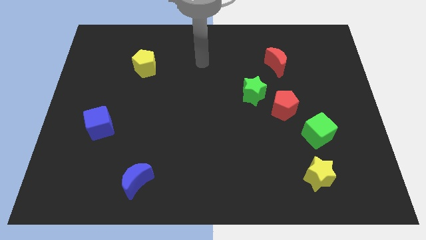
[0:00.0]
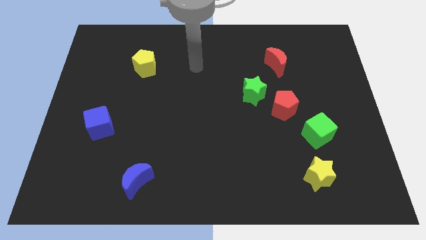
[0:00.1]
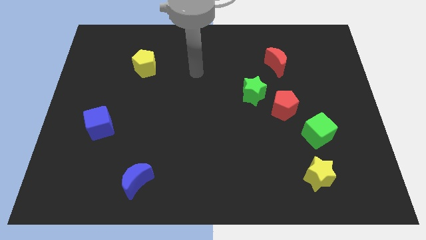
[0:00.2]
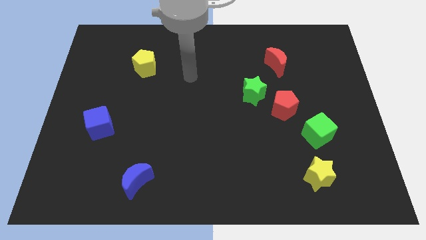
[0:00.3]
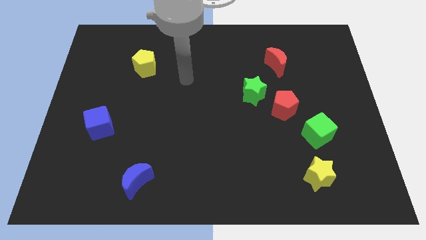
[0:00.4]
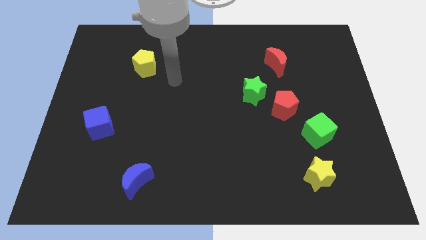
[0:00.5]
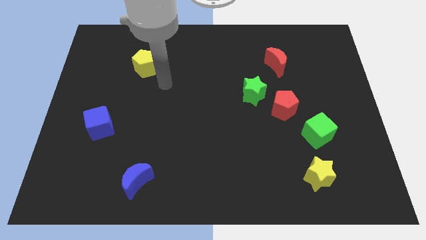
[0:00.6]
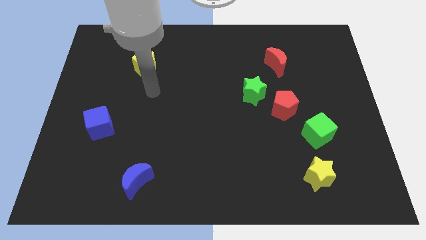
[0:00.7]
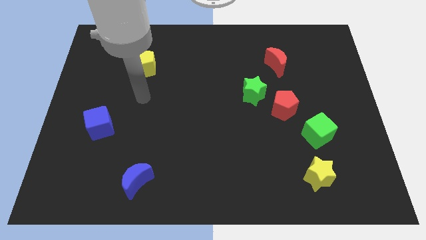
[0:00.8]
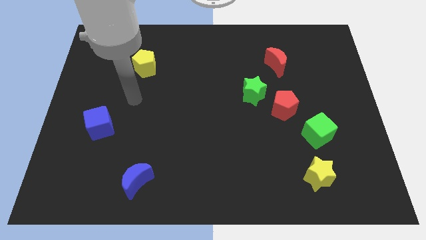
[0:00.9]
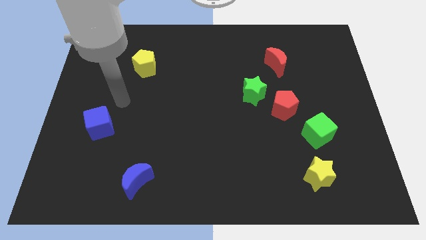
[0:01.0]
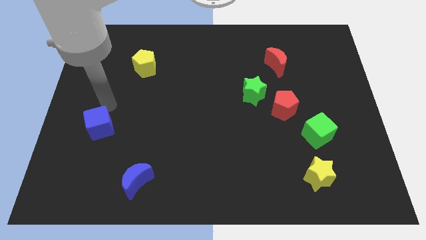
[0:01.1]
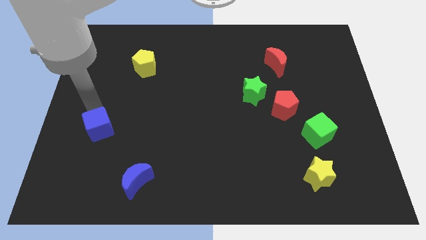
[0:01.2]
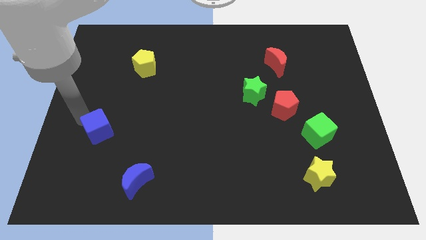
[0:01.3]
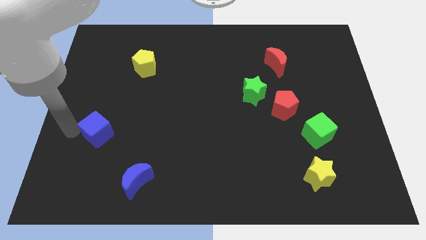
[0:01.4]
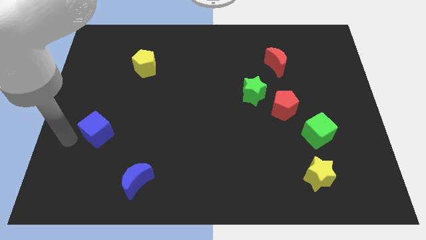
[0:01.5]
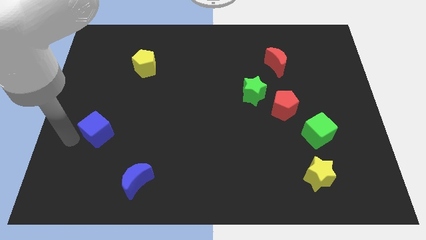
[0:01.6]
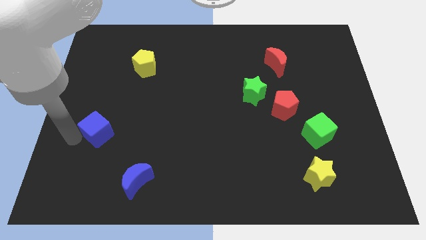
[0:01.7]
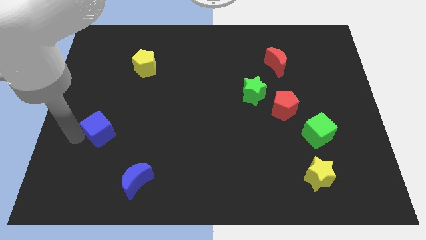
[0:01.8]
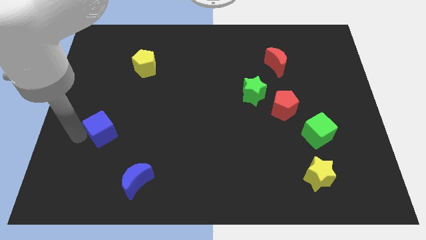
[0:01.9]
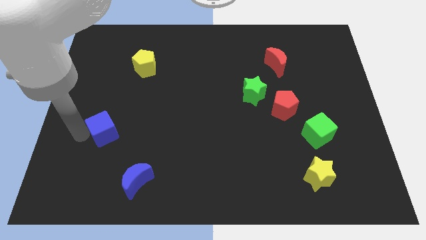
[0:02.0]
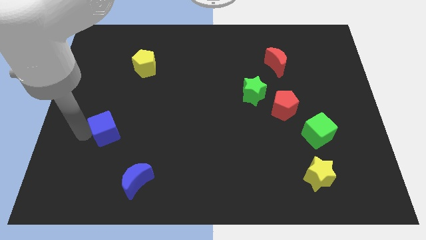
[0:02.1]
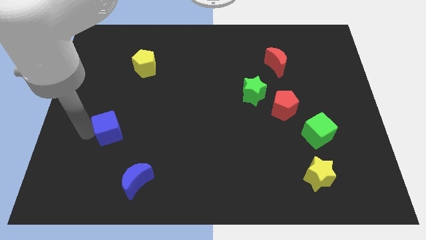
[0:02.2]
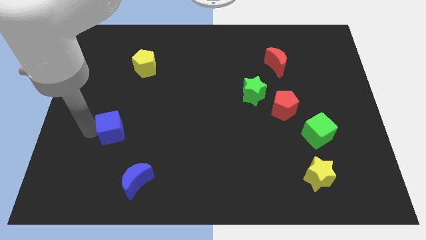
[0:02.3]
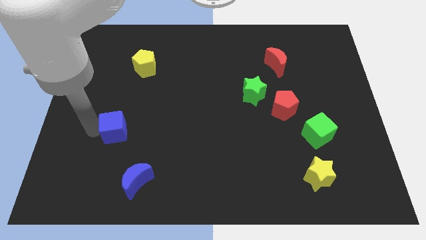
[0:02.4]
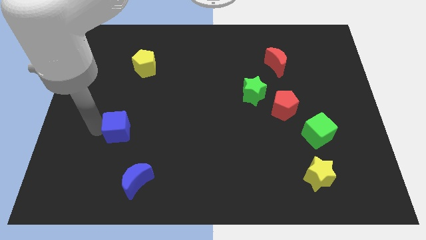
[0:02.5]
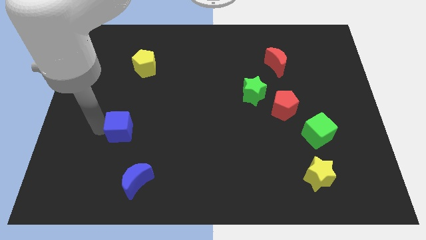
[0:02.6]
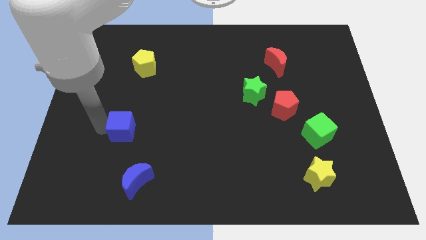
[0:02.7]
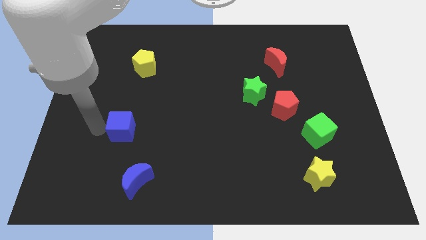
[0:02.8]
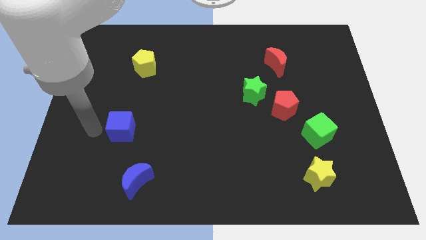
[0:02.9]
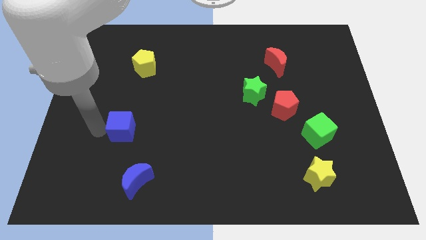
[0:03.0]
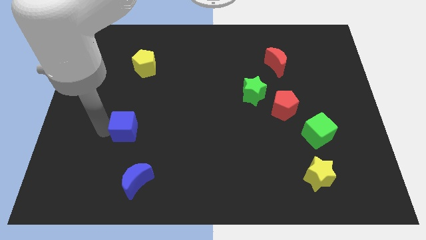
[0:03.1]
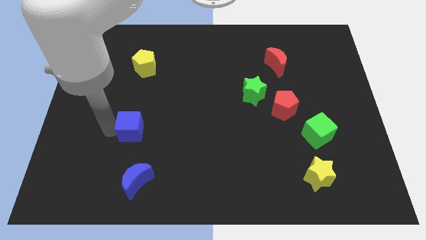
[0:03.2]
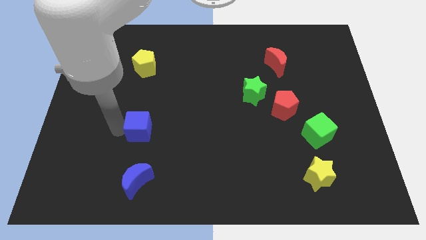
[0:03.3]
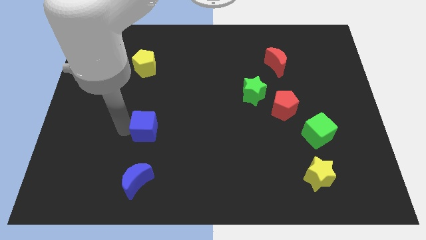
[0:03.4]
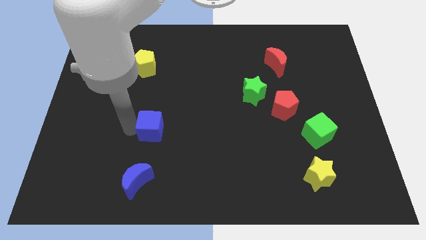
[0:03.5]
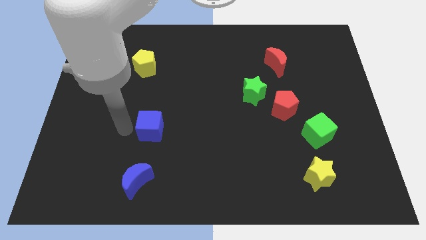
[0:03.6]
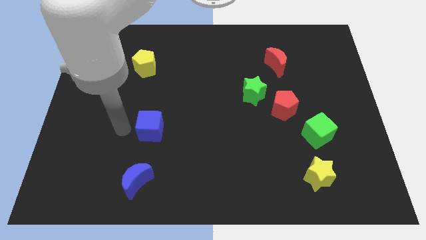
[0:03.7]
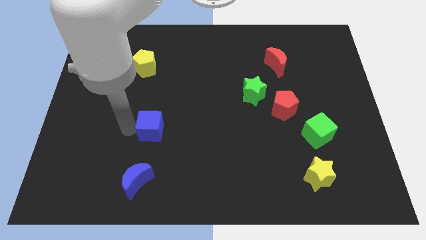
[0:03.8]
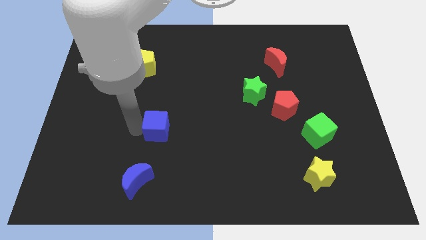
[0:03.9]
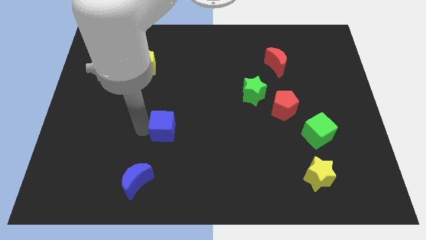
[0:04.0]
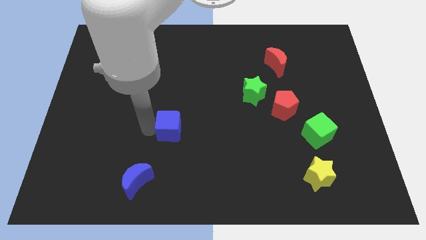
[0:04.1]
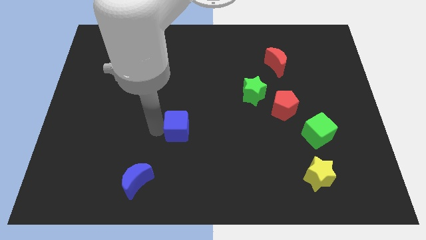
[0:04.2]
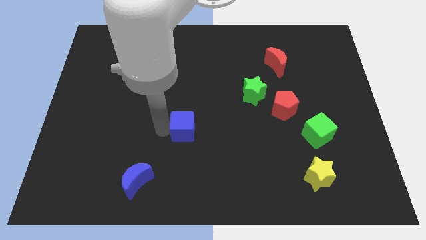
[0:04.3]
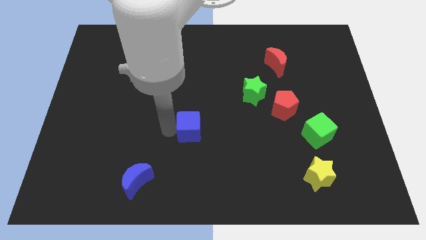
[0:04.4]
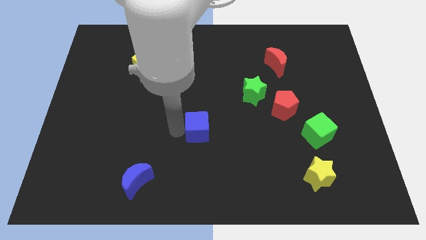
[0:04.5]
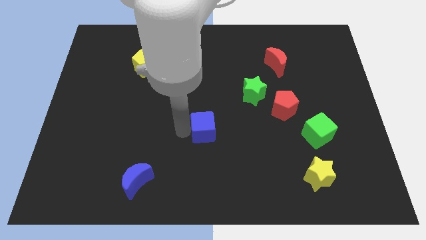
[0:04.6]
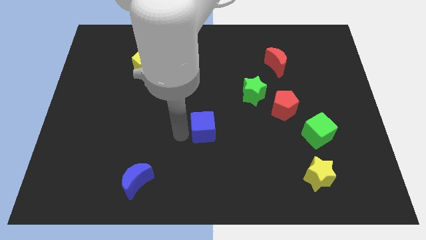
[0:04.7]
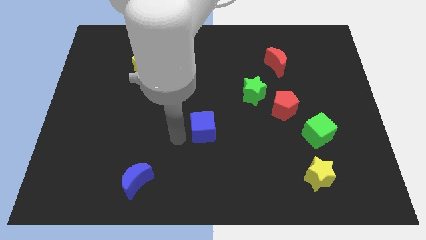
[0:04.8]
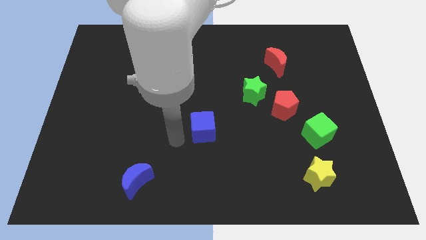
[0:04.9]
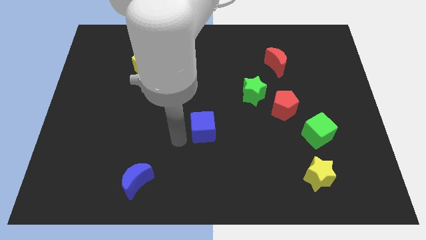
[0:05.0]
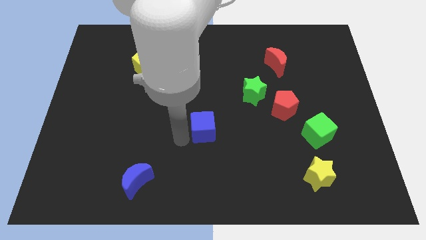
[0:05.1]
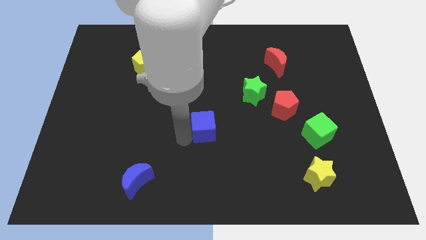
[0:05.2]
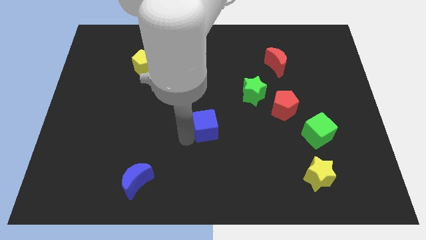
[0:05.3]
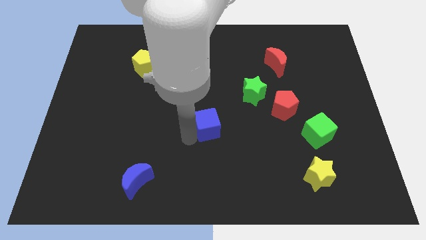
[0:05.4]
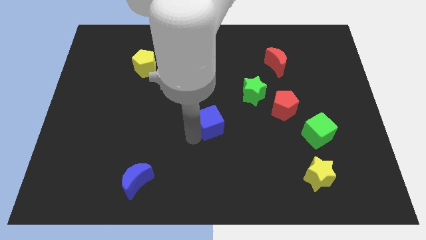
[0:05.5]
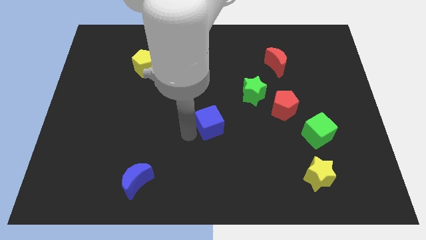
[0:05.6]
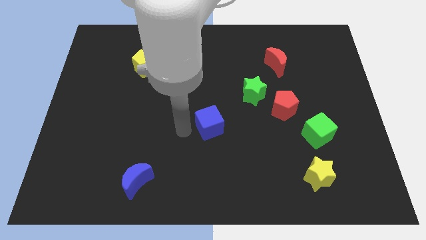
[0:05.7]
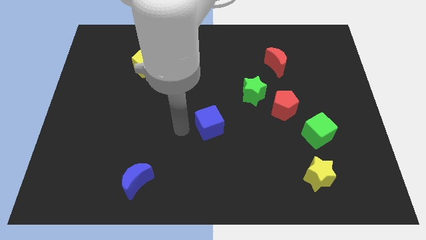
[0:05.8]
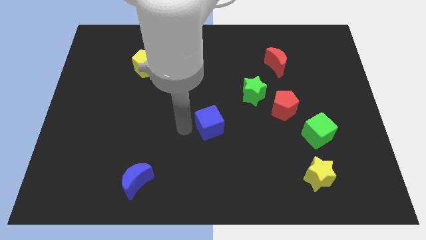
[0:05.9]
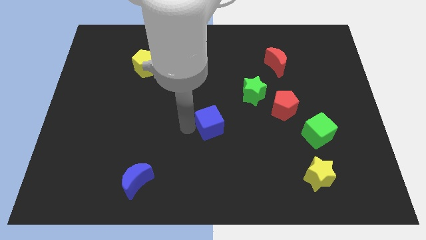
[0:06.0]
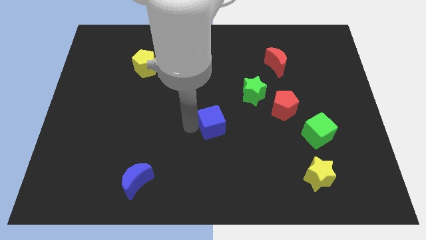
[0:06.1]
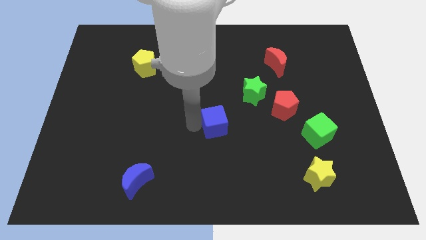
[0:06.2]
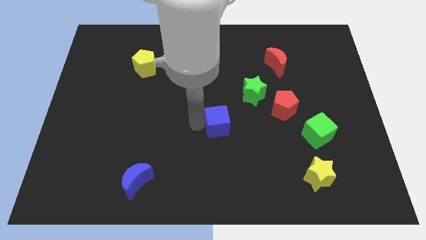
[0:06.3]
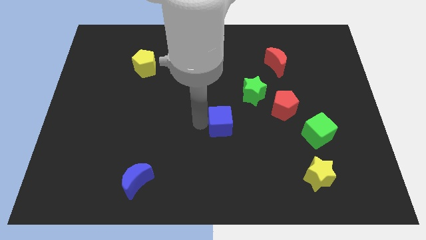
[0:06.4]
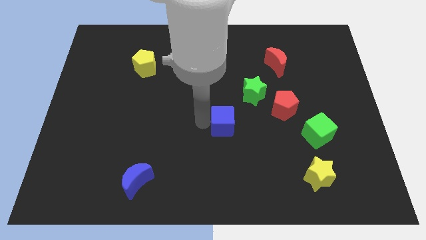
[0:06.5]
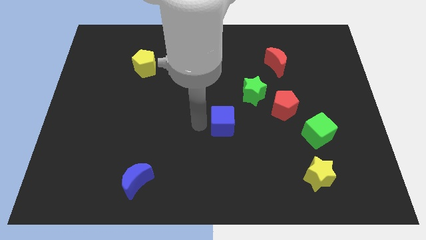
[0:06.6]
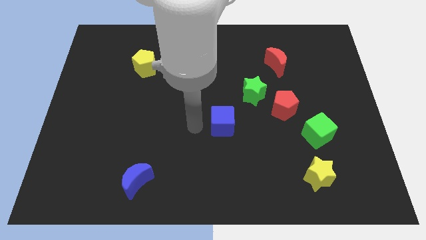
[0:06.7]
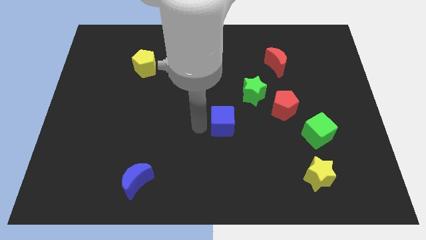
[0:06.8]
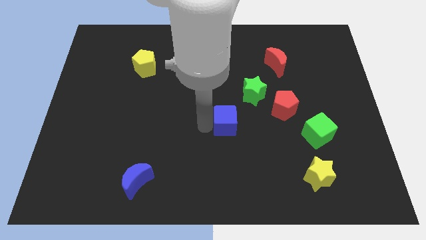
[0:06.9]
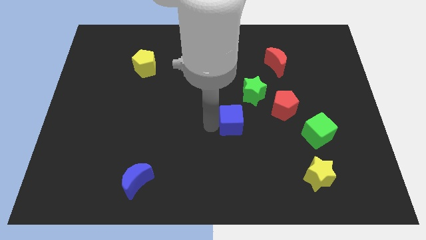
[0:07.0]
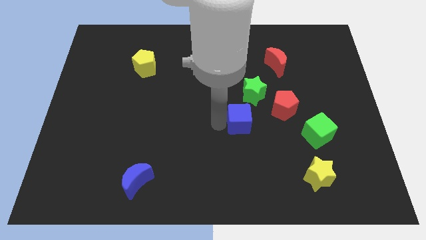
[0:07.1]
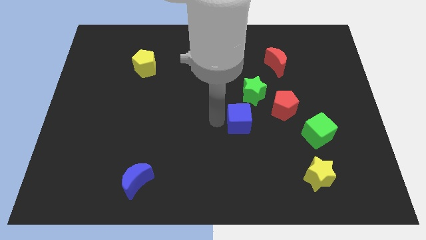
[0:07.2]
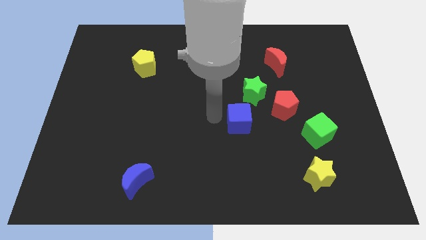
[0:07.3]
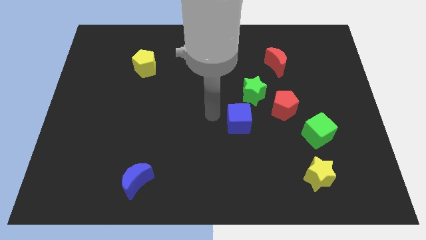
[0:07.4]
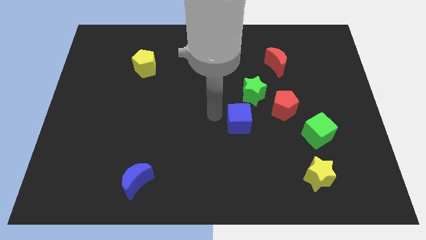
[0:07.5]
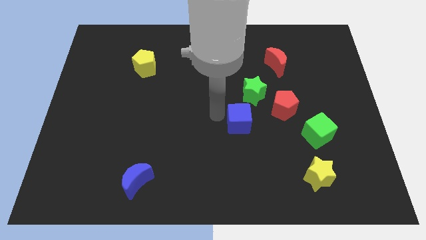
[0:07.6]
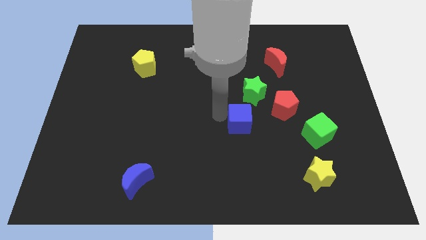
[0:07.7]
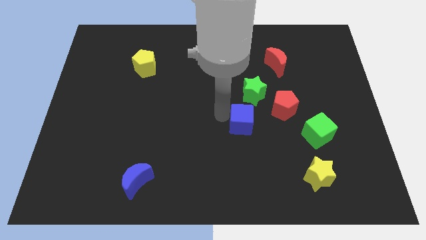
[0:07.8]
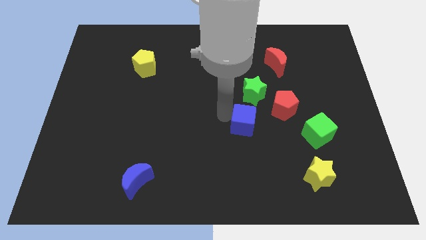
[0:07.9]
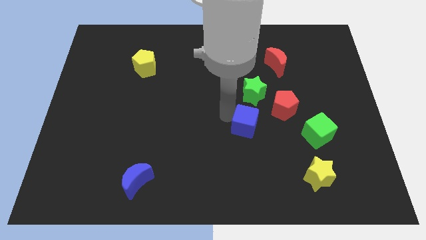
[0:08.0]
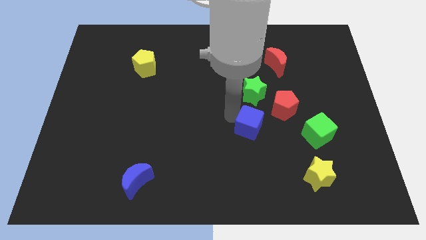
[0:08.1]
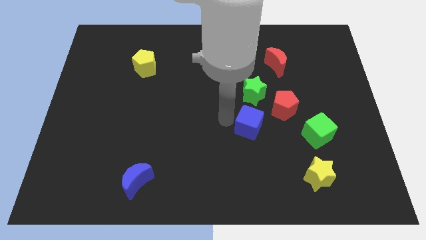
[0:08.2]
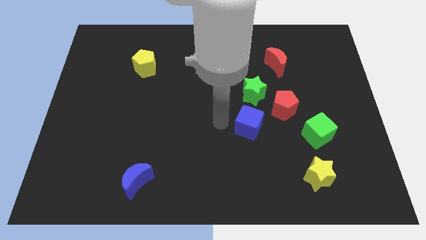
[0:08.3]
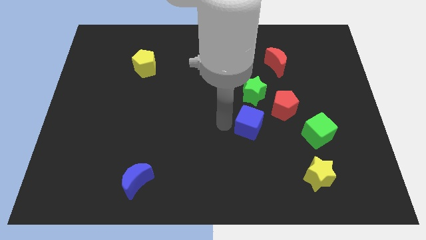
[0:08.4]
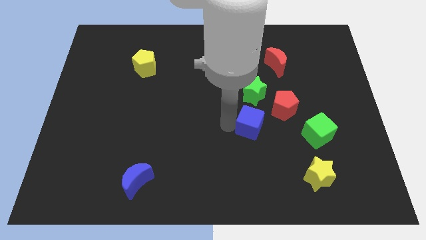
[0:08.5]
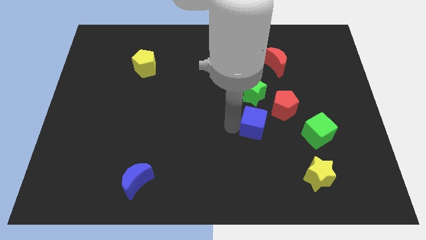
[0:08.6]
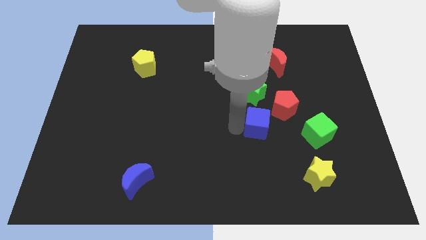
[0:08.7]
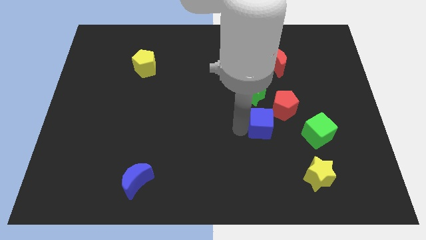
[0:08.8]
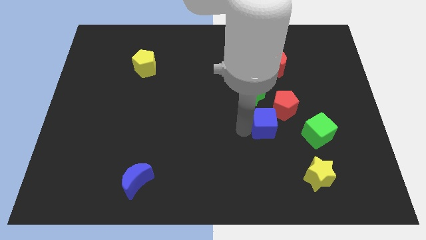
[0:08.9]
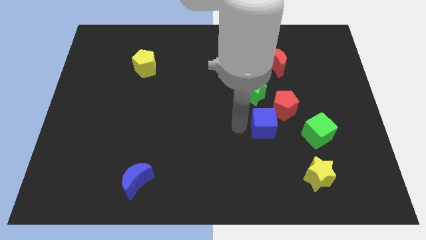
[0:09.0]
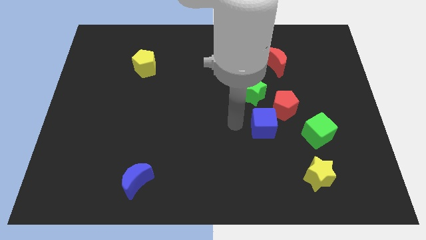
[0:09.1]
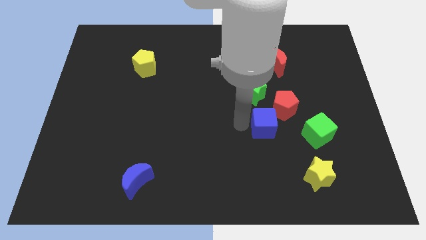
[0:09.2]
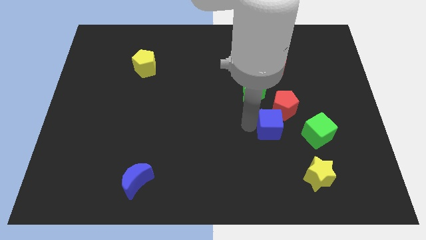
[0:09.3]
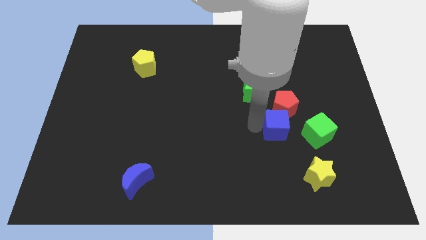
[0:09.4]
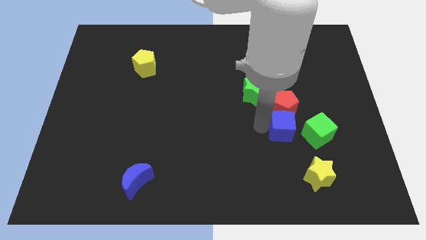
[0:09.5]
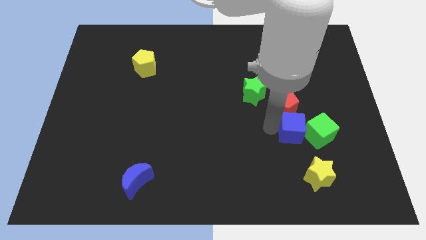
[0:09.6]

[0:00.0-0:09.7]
push the blue cube to the green cube
